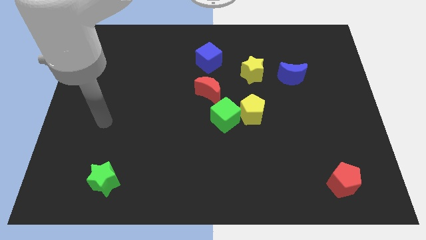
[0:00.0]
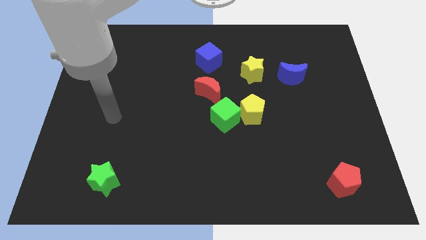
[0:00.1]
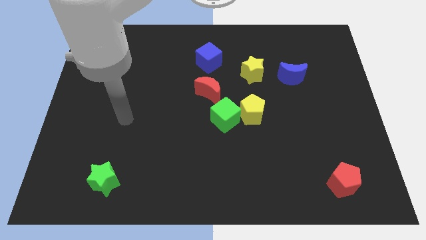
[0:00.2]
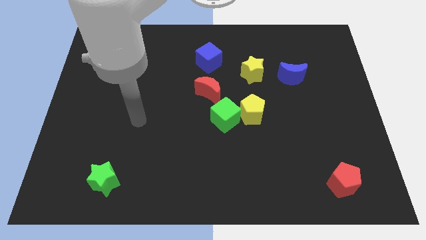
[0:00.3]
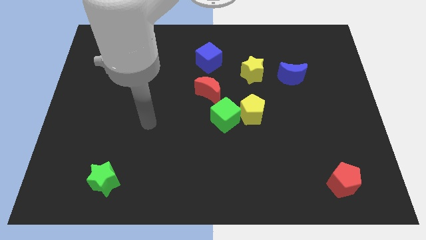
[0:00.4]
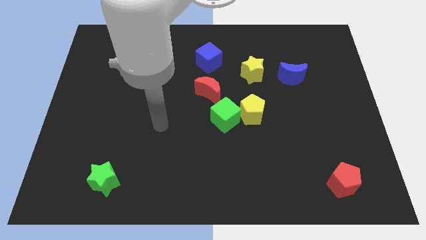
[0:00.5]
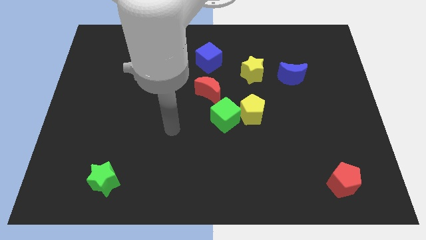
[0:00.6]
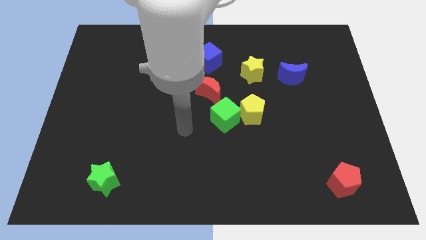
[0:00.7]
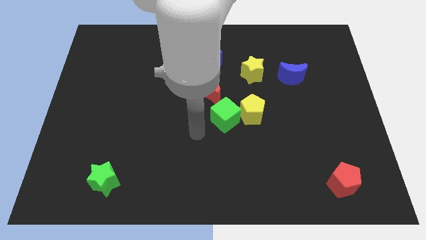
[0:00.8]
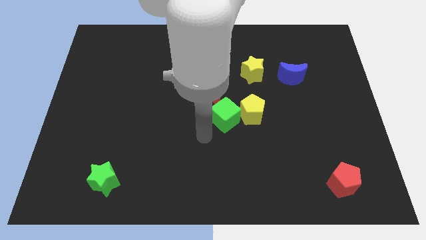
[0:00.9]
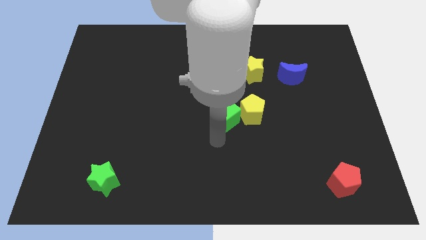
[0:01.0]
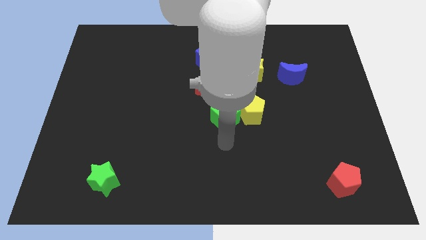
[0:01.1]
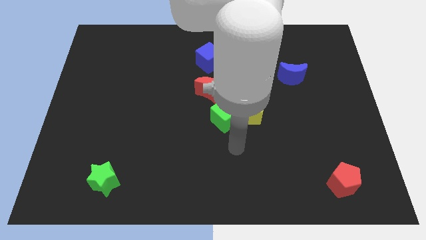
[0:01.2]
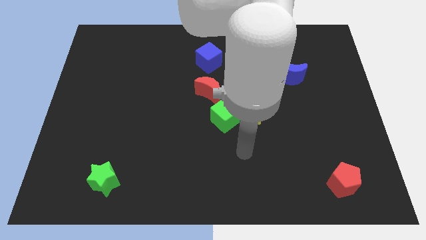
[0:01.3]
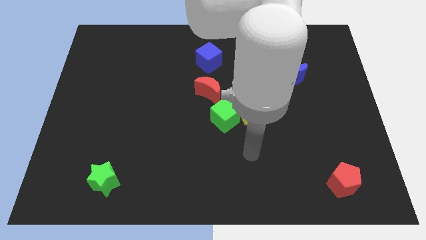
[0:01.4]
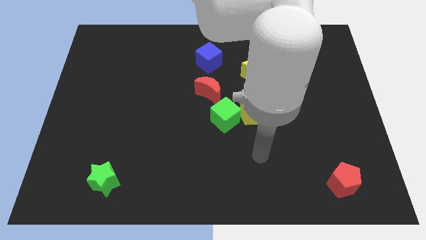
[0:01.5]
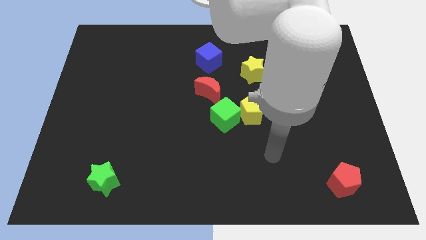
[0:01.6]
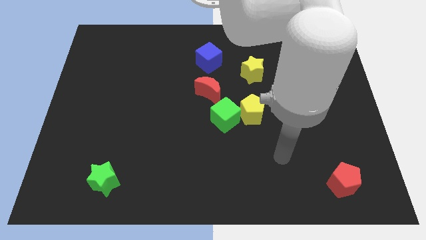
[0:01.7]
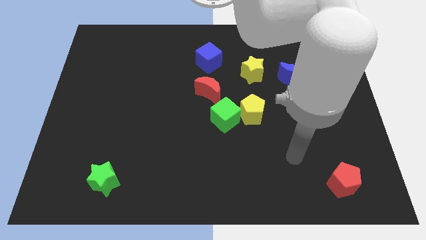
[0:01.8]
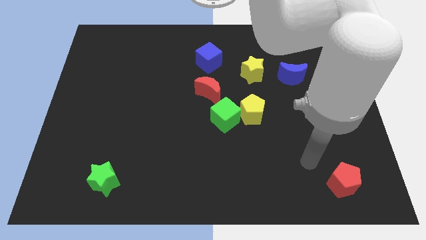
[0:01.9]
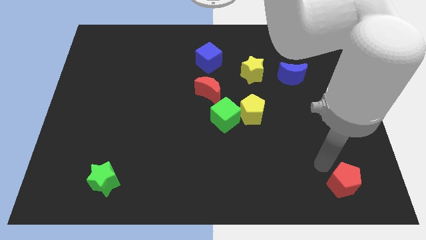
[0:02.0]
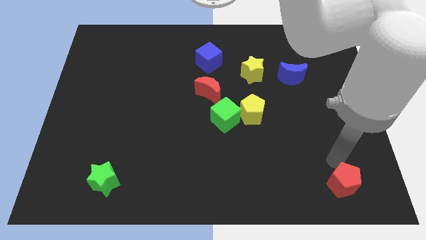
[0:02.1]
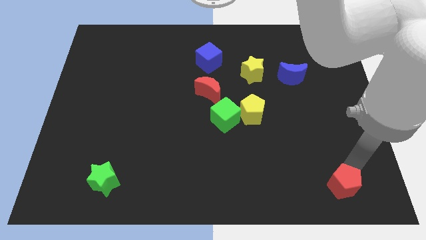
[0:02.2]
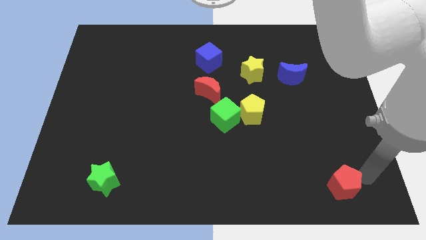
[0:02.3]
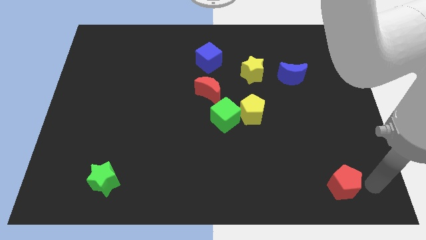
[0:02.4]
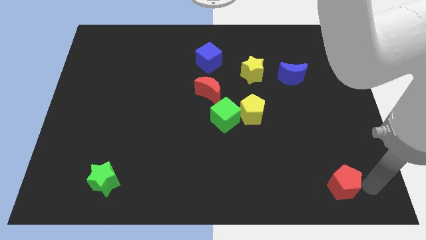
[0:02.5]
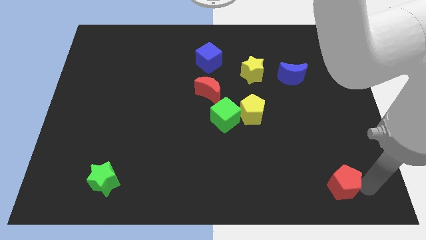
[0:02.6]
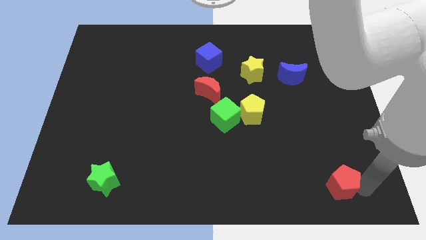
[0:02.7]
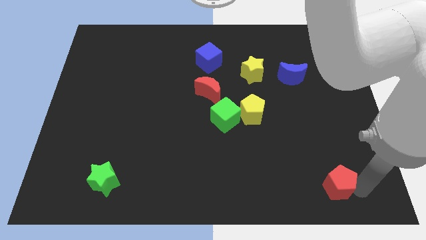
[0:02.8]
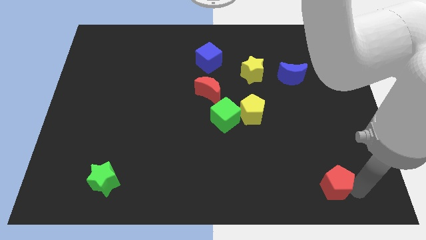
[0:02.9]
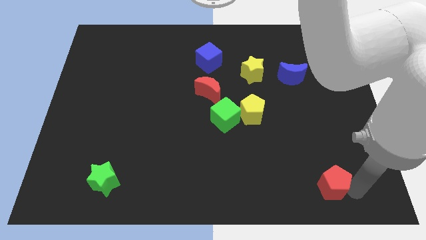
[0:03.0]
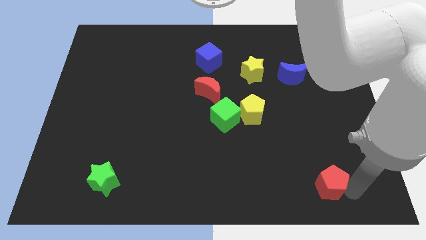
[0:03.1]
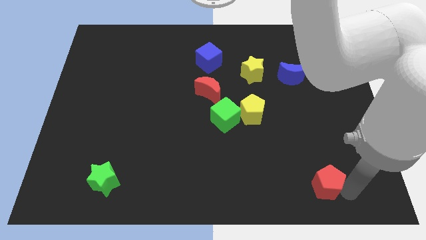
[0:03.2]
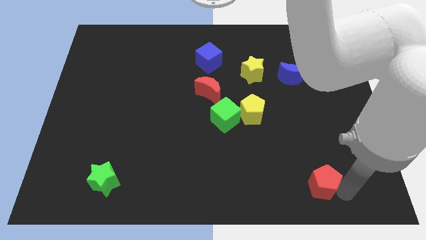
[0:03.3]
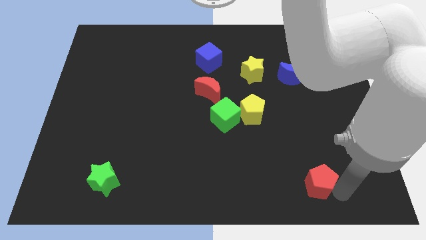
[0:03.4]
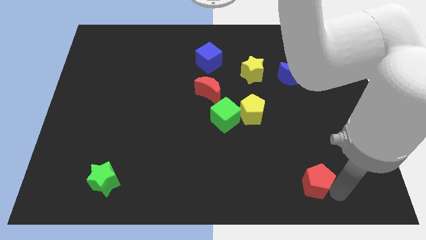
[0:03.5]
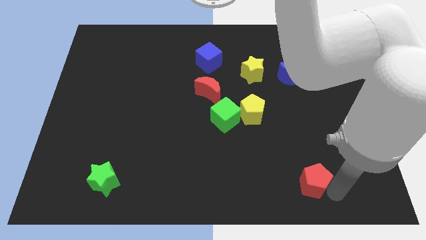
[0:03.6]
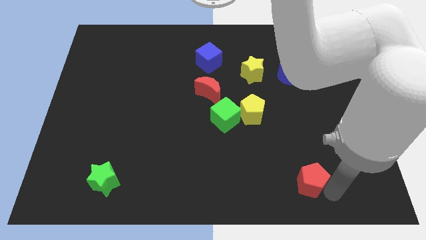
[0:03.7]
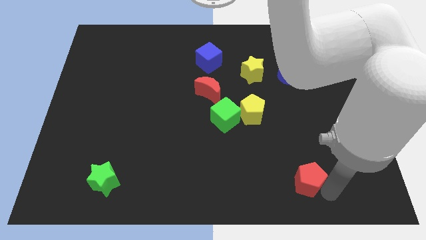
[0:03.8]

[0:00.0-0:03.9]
slide the red pentagon left somewhat

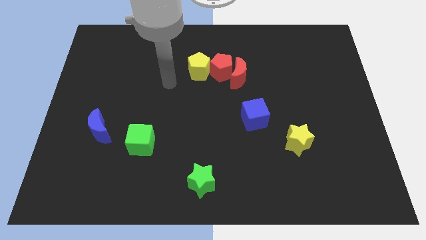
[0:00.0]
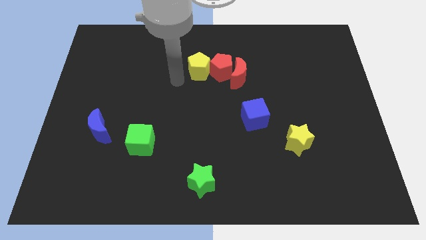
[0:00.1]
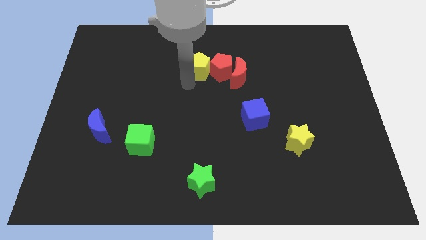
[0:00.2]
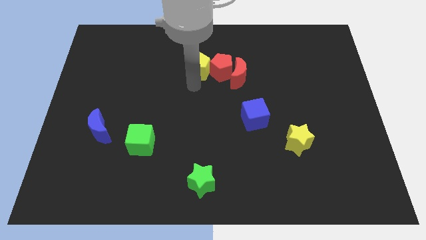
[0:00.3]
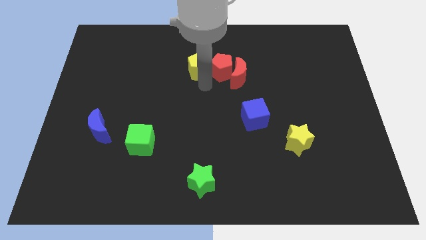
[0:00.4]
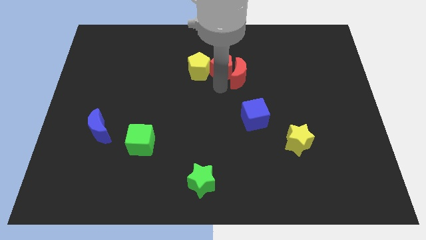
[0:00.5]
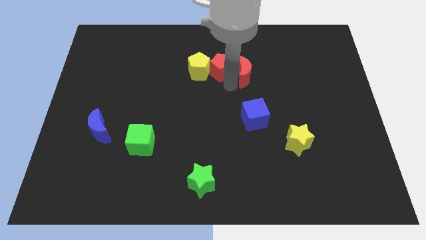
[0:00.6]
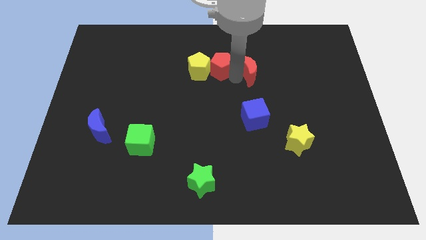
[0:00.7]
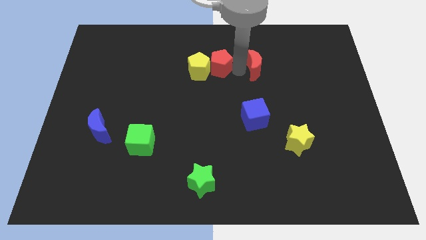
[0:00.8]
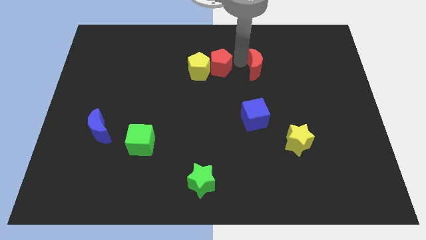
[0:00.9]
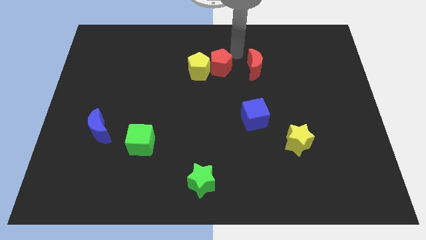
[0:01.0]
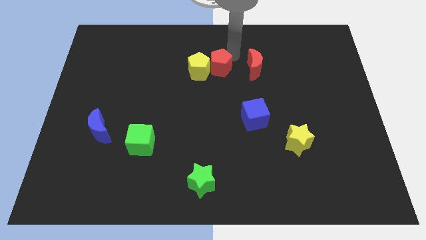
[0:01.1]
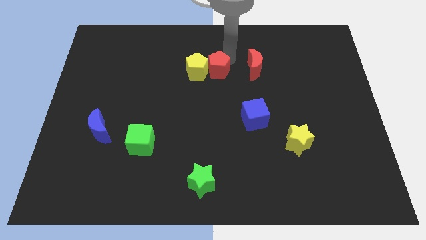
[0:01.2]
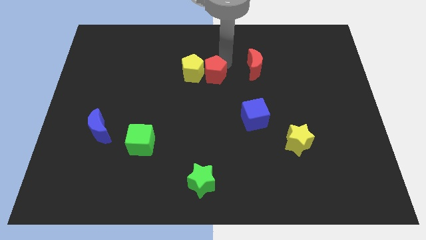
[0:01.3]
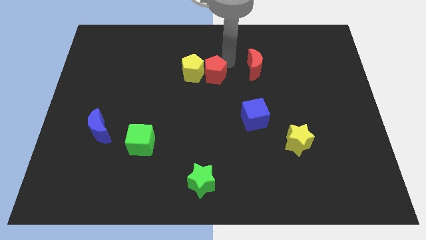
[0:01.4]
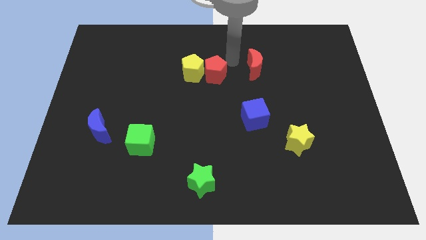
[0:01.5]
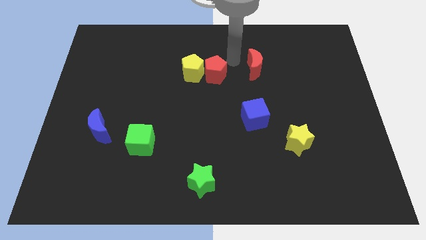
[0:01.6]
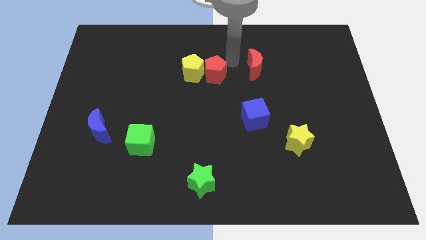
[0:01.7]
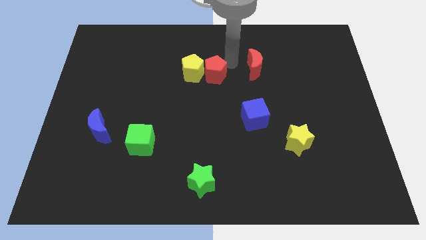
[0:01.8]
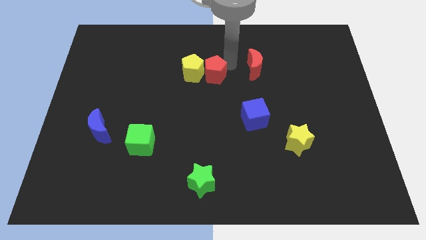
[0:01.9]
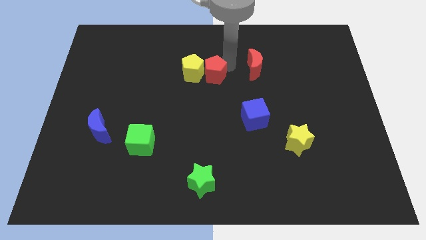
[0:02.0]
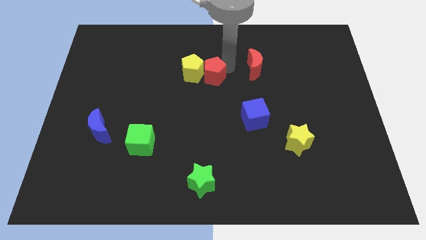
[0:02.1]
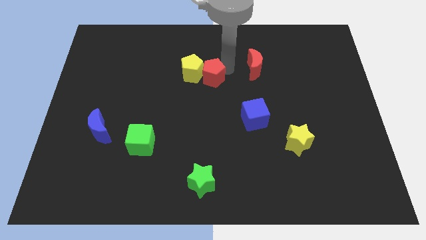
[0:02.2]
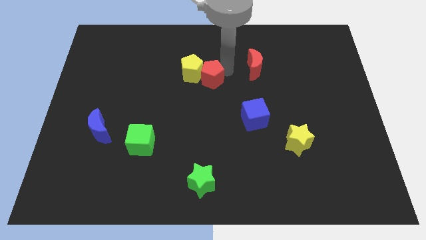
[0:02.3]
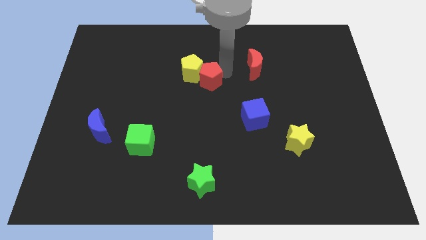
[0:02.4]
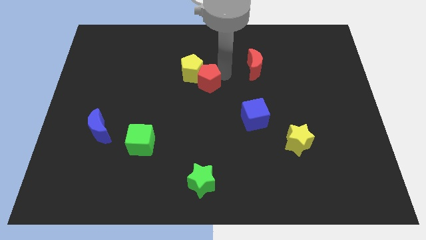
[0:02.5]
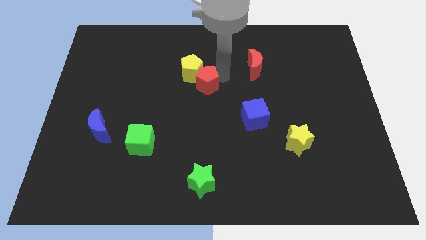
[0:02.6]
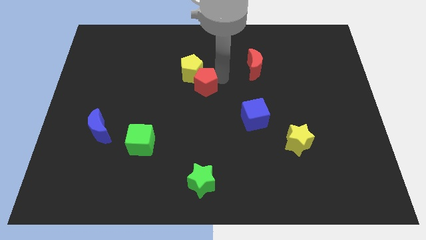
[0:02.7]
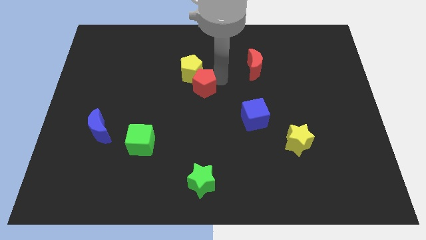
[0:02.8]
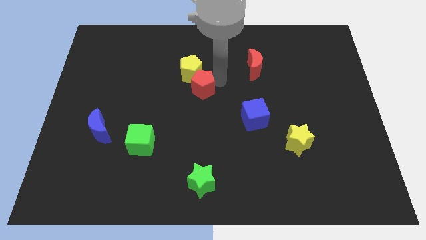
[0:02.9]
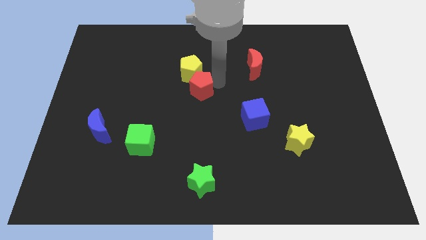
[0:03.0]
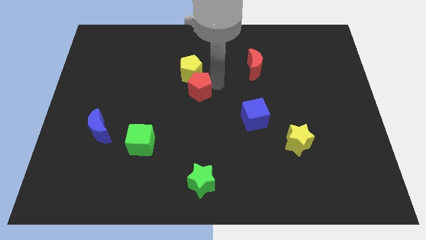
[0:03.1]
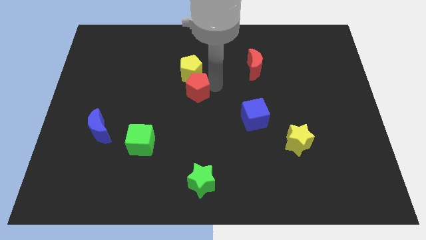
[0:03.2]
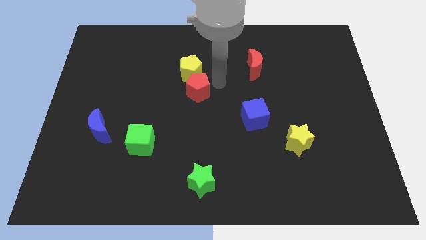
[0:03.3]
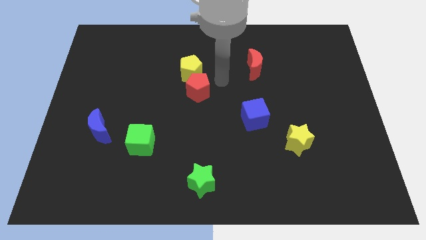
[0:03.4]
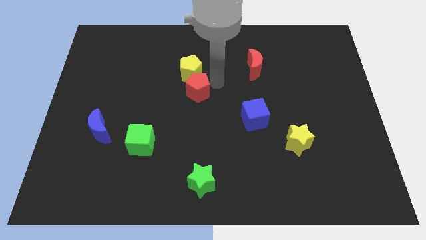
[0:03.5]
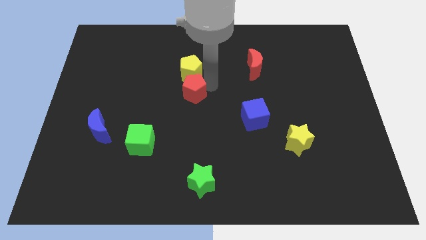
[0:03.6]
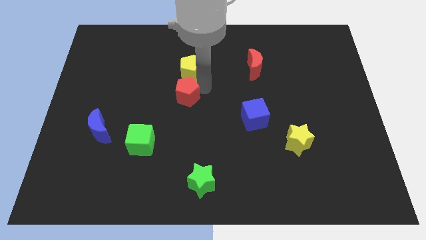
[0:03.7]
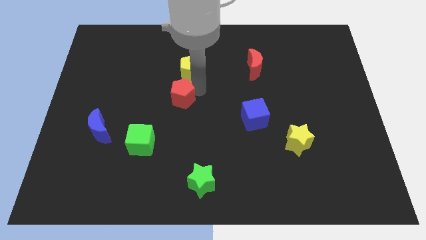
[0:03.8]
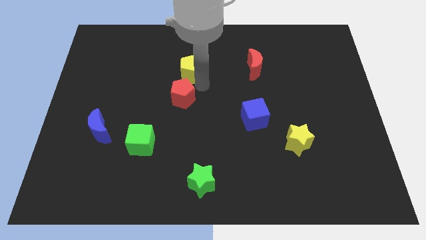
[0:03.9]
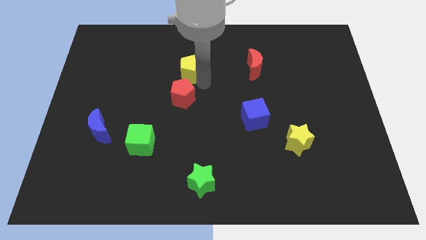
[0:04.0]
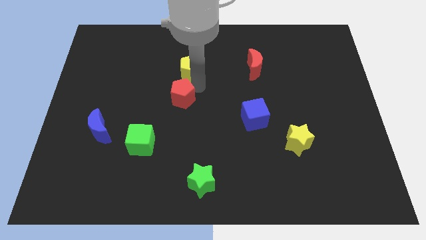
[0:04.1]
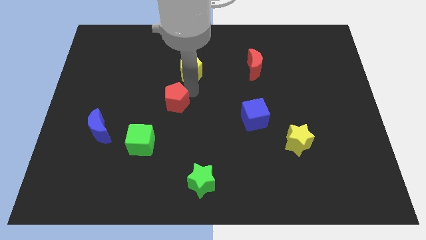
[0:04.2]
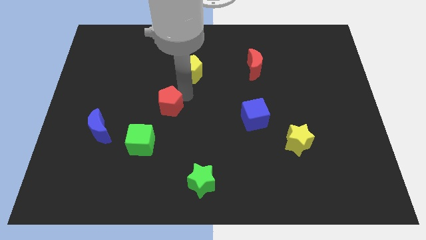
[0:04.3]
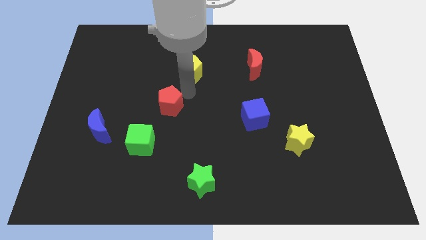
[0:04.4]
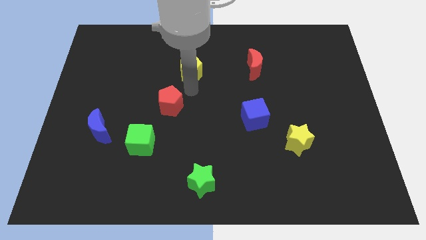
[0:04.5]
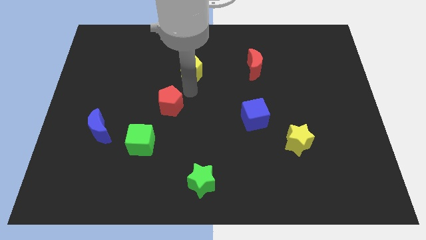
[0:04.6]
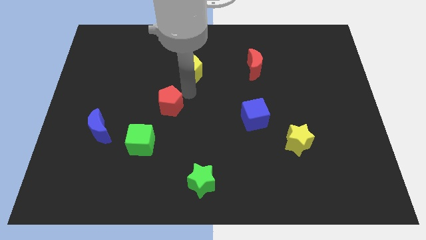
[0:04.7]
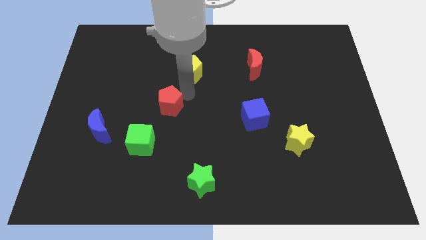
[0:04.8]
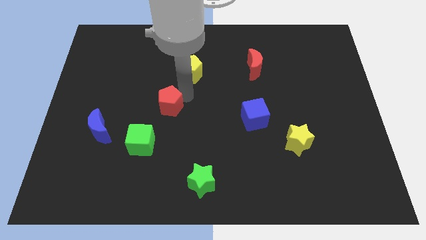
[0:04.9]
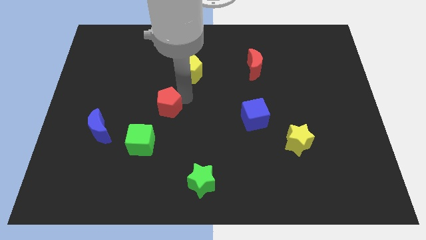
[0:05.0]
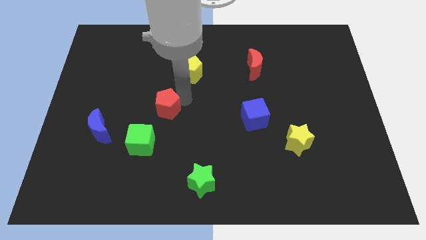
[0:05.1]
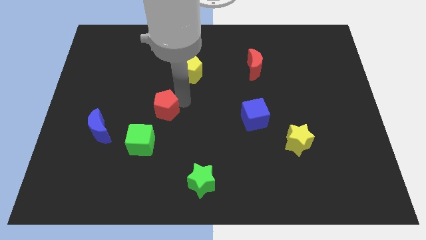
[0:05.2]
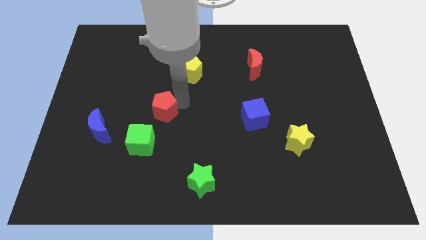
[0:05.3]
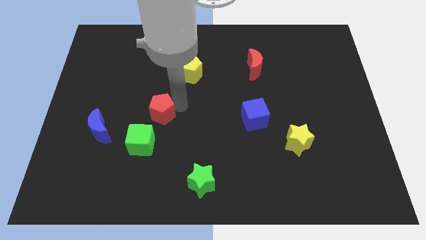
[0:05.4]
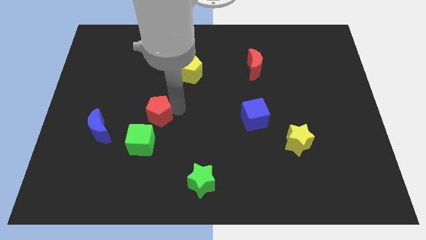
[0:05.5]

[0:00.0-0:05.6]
move the red pentagon downwards and left diagonally
